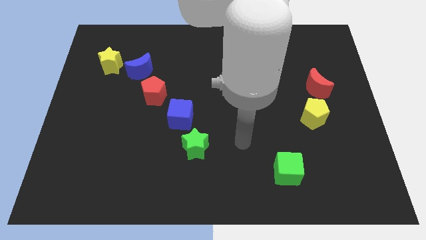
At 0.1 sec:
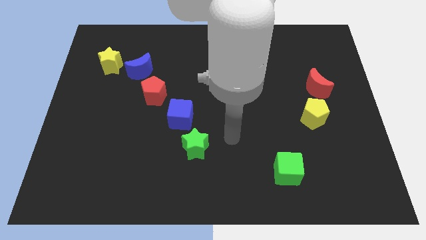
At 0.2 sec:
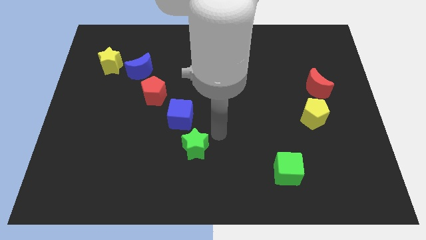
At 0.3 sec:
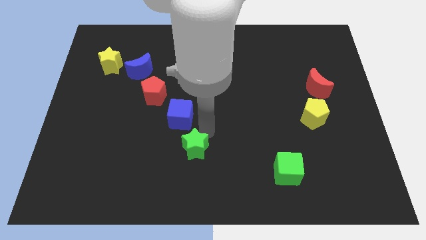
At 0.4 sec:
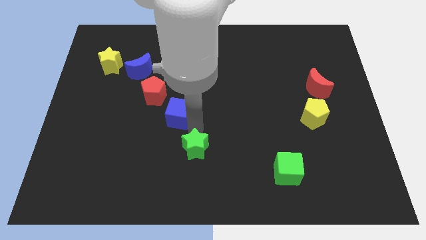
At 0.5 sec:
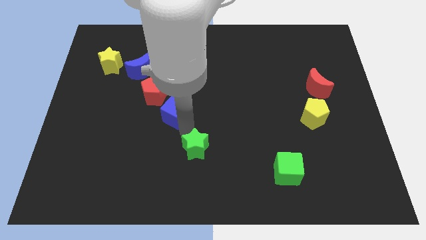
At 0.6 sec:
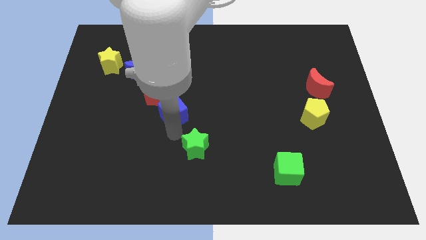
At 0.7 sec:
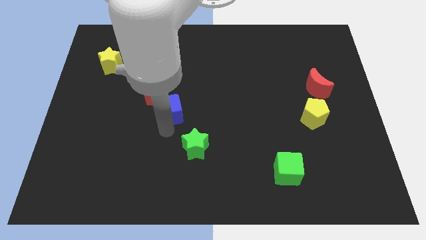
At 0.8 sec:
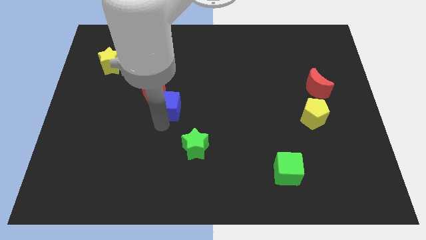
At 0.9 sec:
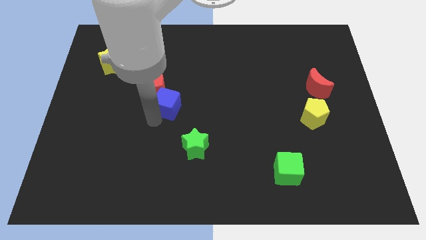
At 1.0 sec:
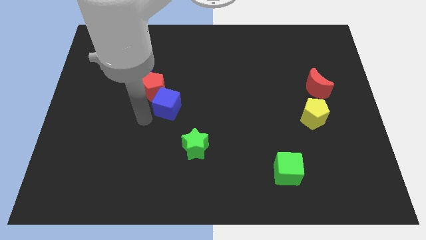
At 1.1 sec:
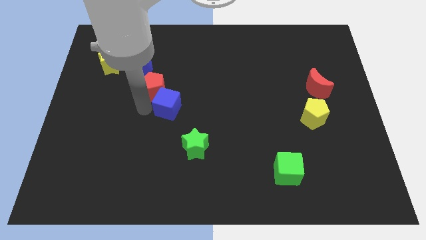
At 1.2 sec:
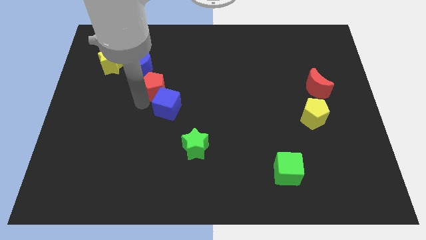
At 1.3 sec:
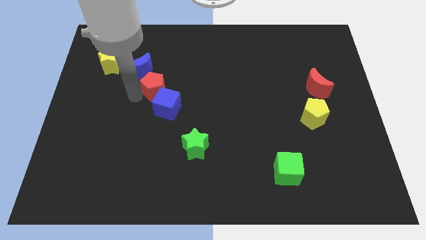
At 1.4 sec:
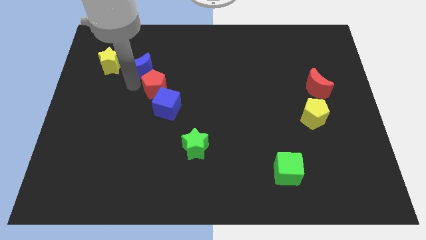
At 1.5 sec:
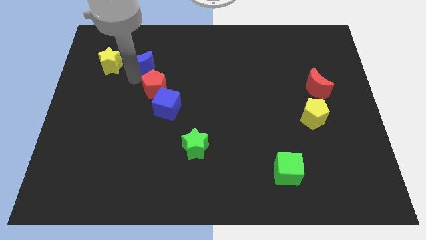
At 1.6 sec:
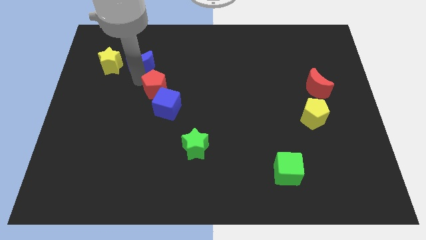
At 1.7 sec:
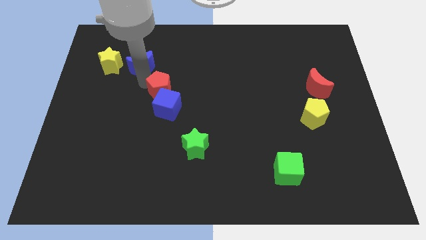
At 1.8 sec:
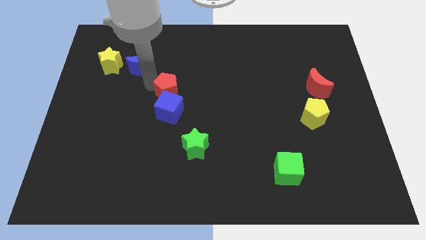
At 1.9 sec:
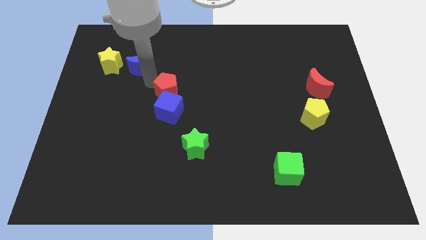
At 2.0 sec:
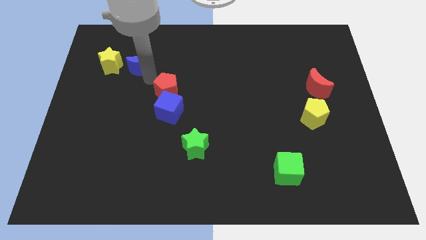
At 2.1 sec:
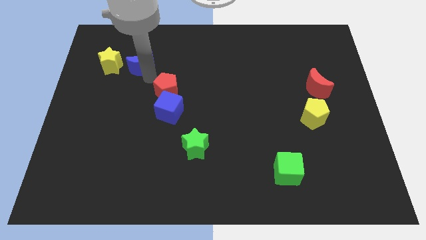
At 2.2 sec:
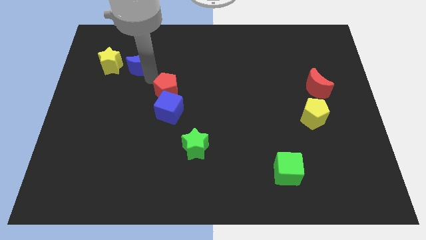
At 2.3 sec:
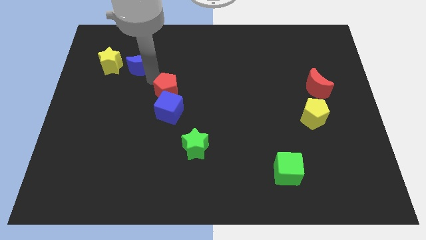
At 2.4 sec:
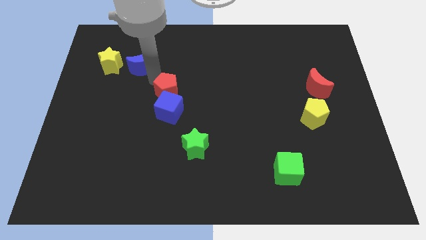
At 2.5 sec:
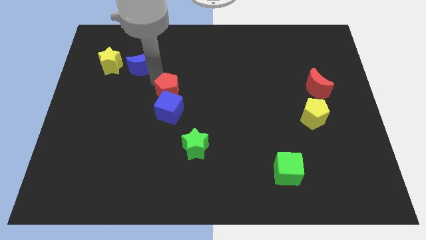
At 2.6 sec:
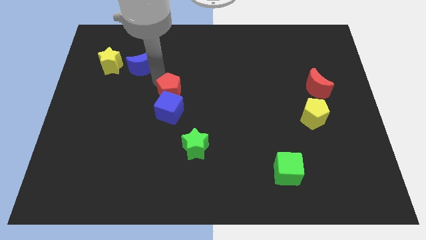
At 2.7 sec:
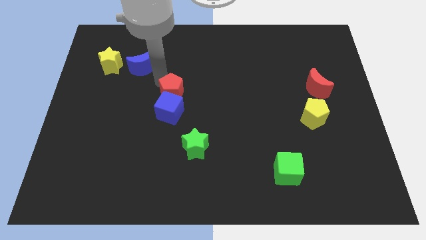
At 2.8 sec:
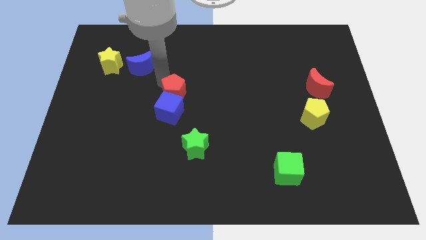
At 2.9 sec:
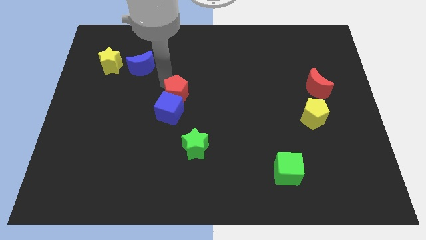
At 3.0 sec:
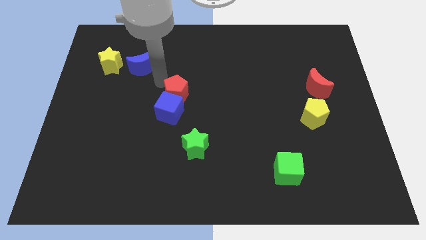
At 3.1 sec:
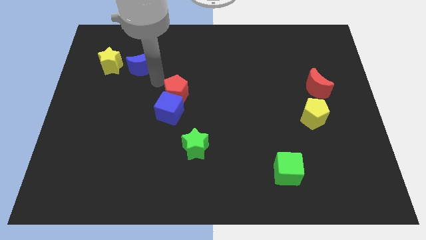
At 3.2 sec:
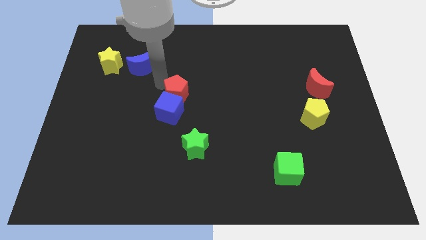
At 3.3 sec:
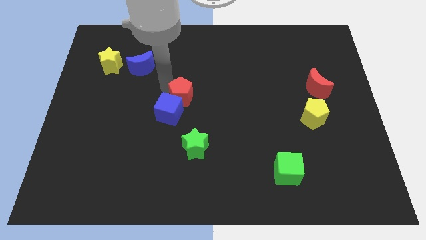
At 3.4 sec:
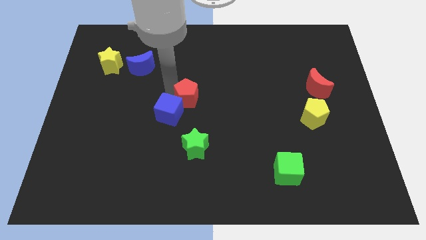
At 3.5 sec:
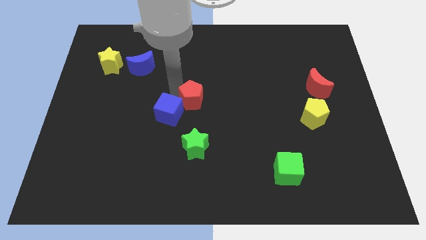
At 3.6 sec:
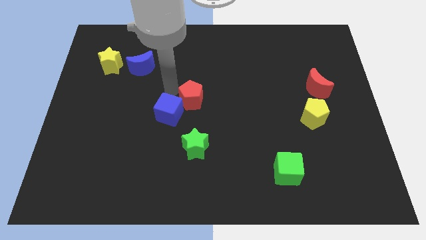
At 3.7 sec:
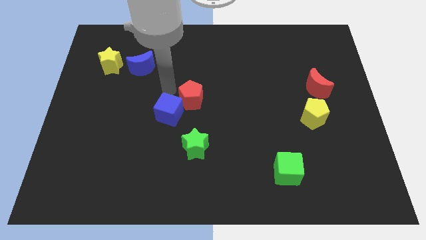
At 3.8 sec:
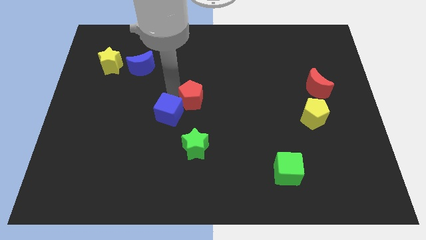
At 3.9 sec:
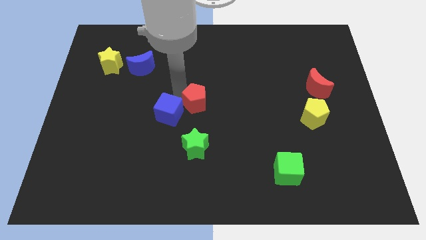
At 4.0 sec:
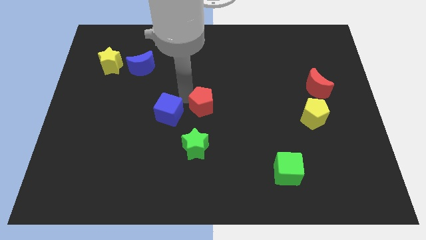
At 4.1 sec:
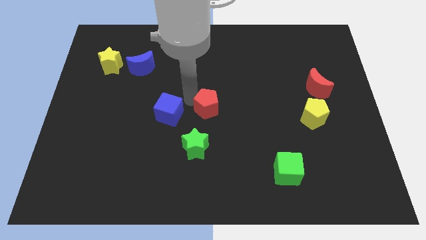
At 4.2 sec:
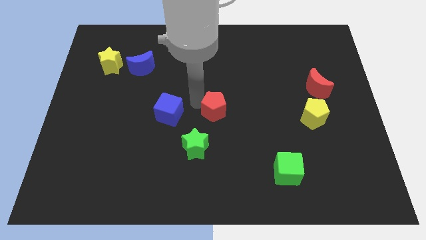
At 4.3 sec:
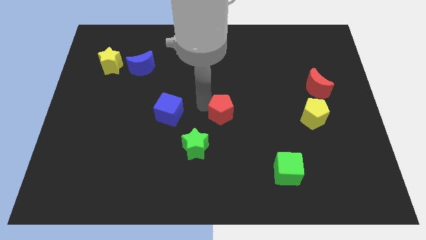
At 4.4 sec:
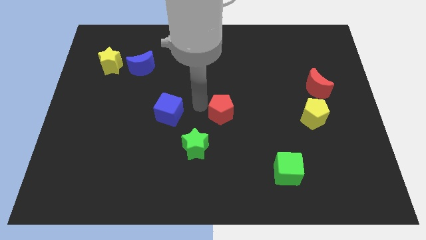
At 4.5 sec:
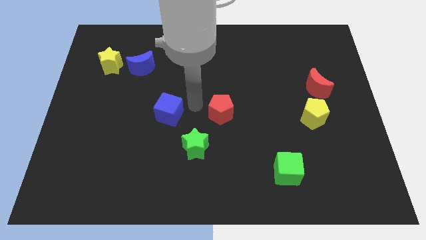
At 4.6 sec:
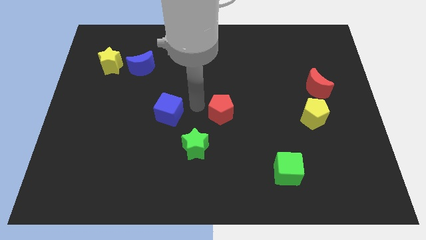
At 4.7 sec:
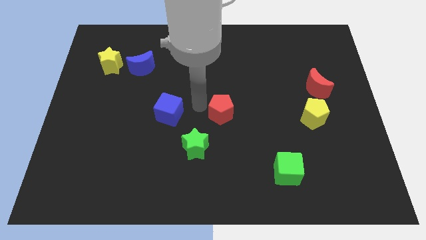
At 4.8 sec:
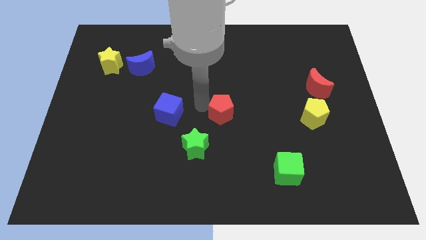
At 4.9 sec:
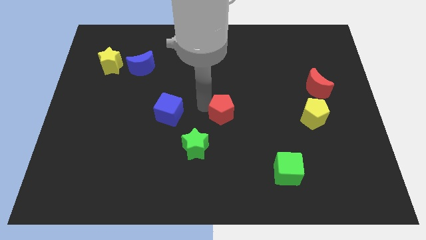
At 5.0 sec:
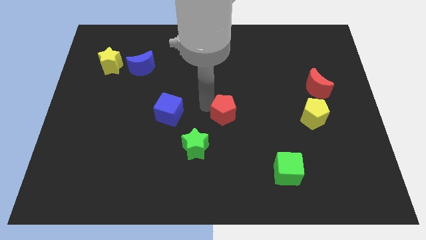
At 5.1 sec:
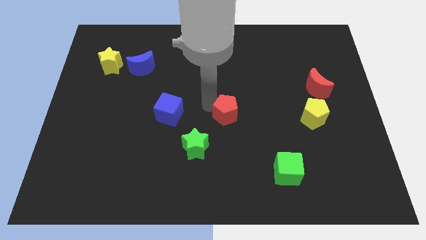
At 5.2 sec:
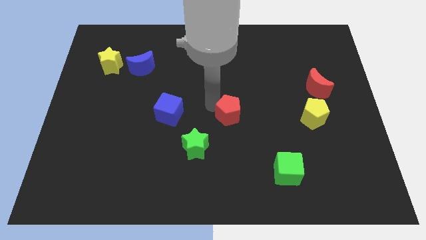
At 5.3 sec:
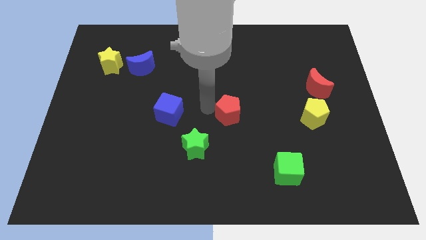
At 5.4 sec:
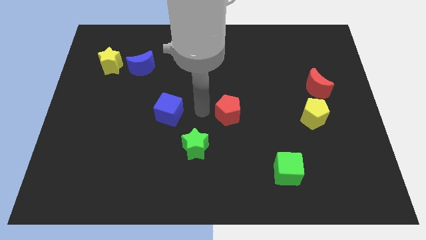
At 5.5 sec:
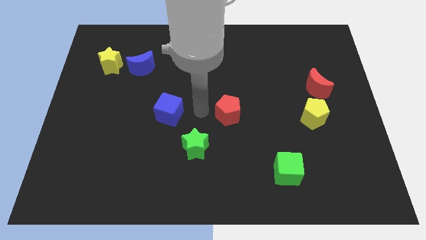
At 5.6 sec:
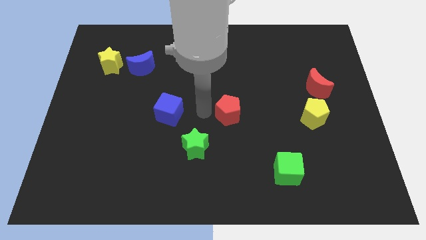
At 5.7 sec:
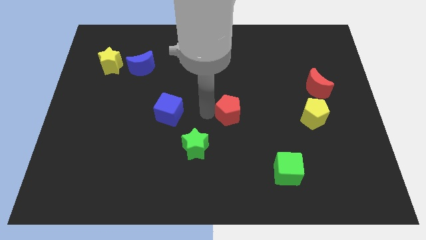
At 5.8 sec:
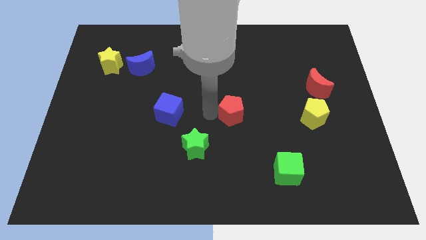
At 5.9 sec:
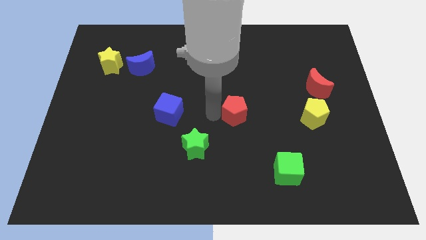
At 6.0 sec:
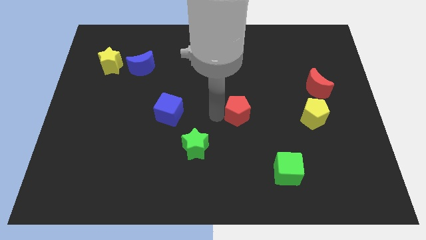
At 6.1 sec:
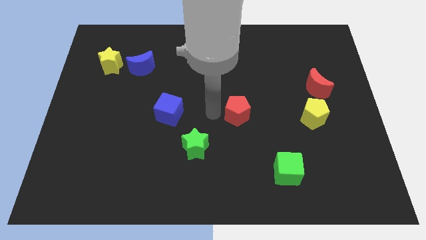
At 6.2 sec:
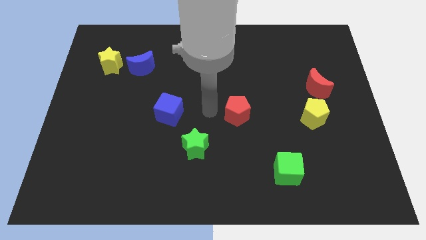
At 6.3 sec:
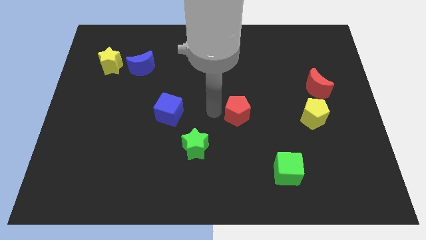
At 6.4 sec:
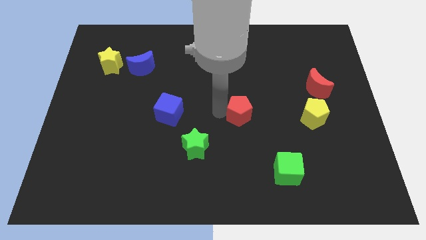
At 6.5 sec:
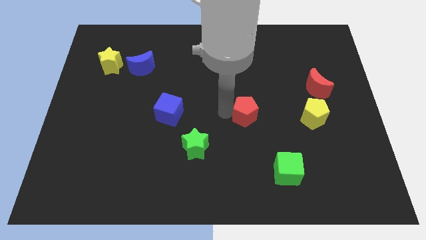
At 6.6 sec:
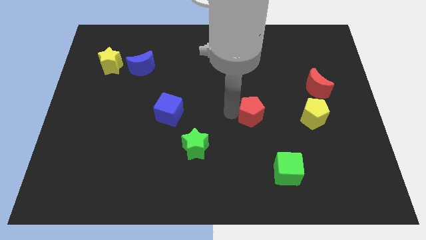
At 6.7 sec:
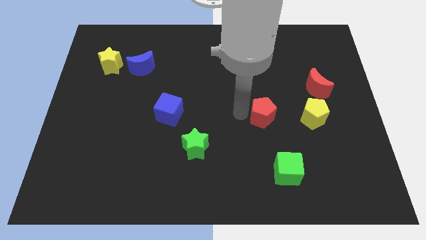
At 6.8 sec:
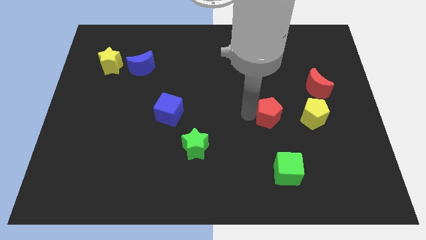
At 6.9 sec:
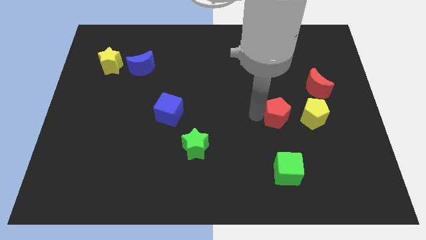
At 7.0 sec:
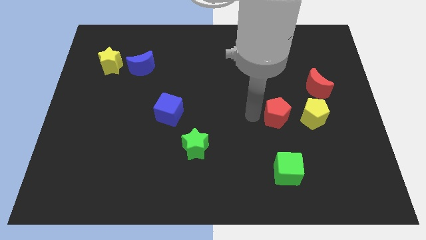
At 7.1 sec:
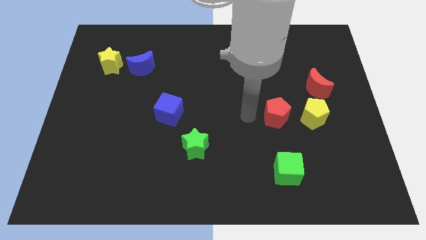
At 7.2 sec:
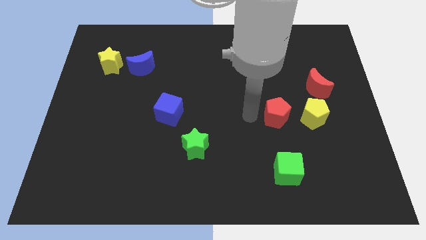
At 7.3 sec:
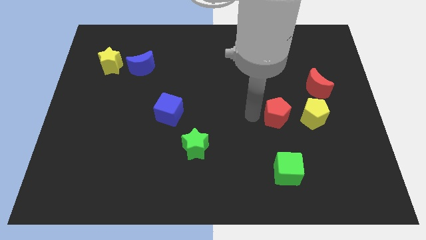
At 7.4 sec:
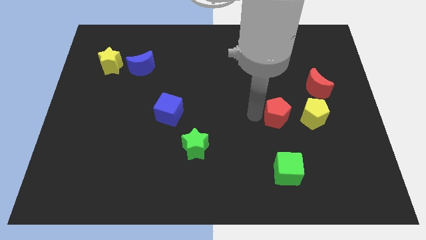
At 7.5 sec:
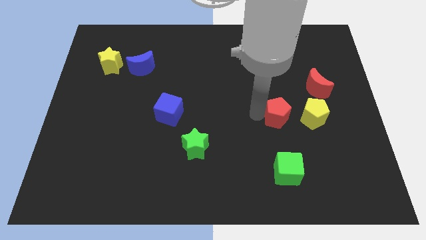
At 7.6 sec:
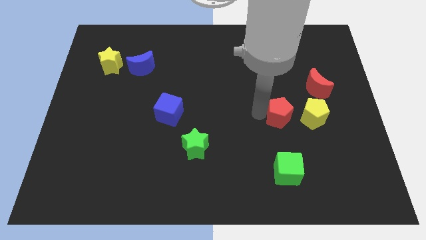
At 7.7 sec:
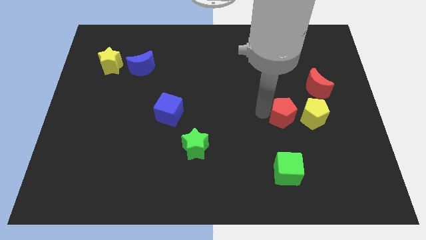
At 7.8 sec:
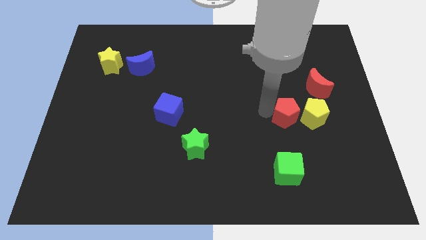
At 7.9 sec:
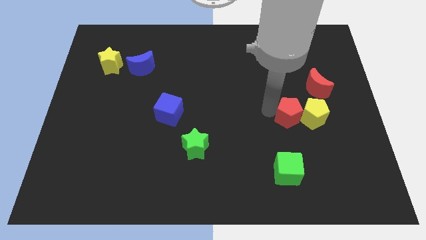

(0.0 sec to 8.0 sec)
slide the red pentagon towards the yellow pentagon
